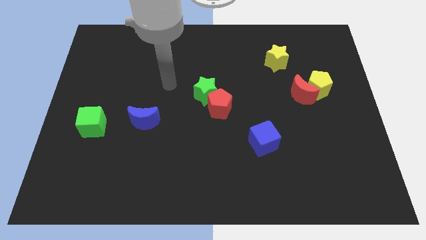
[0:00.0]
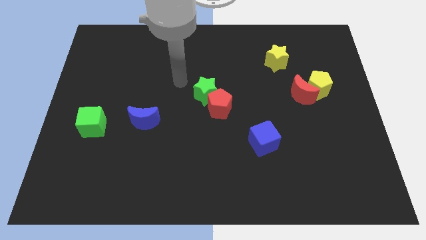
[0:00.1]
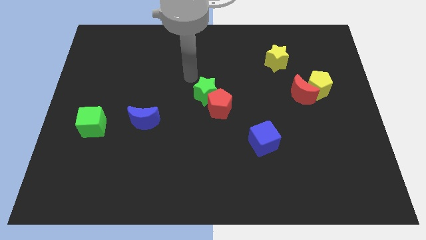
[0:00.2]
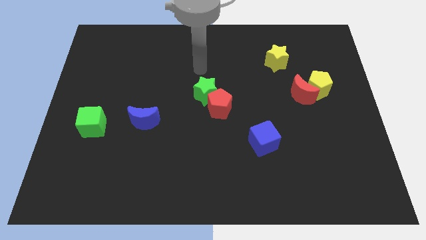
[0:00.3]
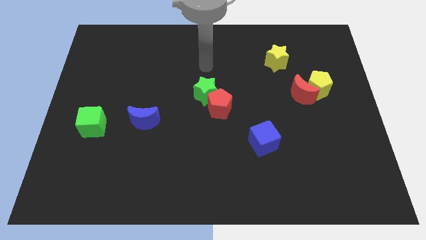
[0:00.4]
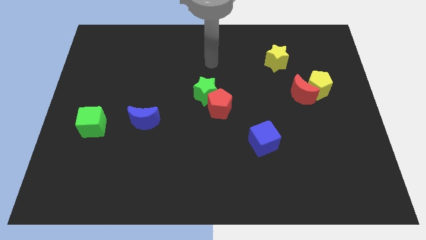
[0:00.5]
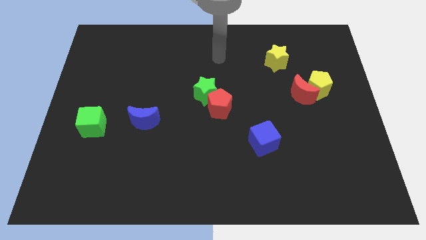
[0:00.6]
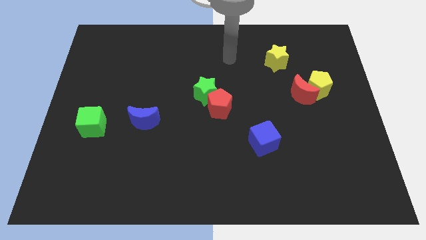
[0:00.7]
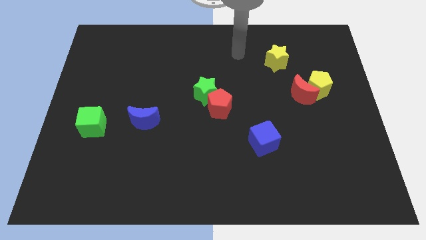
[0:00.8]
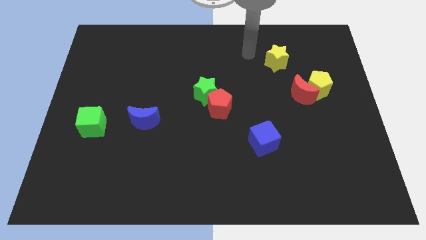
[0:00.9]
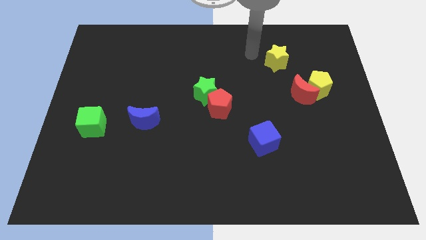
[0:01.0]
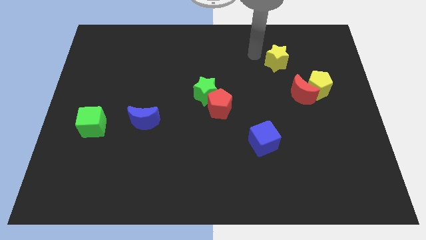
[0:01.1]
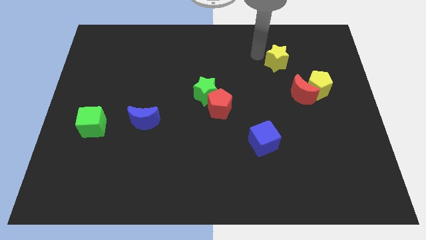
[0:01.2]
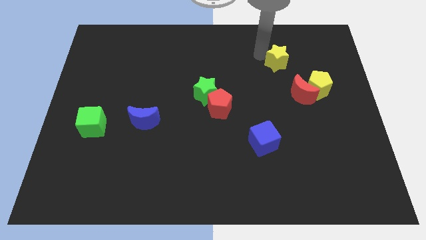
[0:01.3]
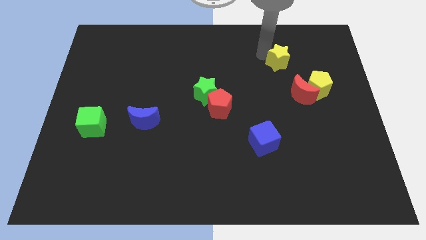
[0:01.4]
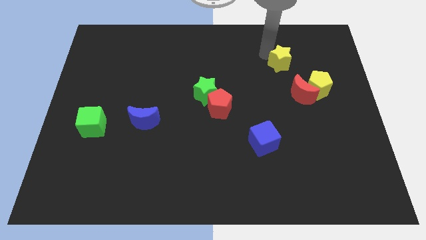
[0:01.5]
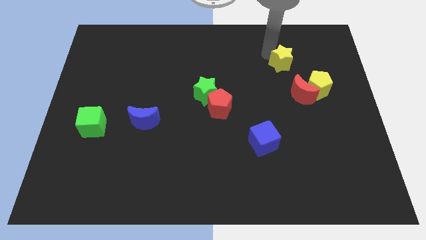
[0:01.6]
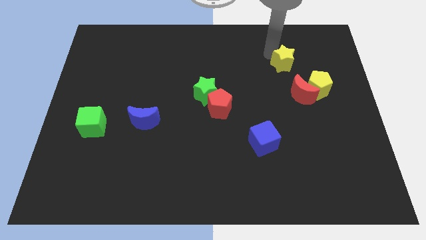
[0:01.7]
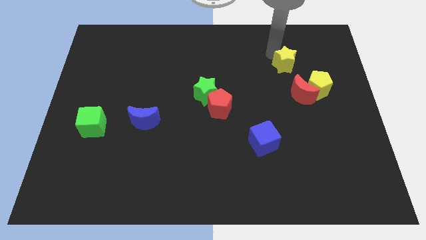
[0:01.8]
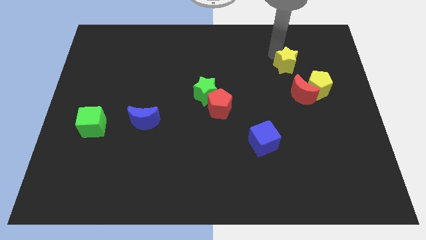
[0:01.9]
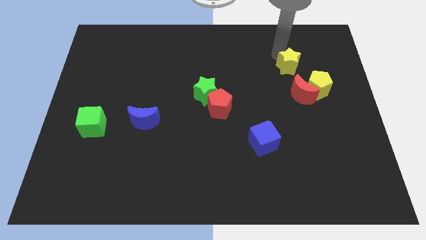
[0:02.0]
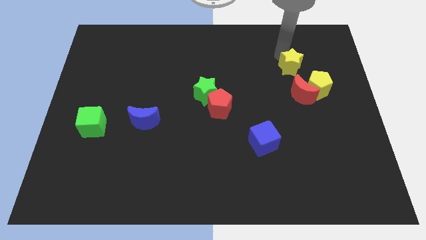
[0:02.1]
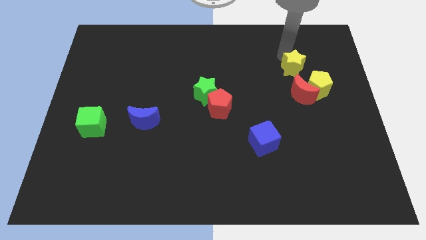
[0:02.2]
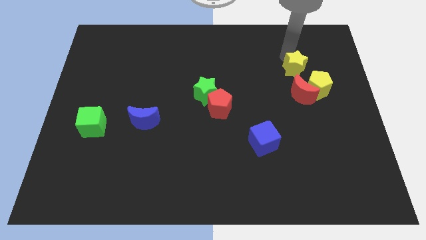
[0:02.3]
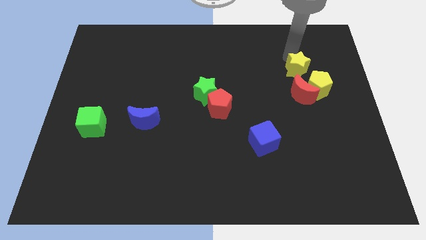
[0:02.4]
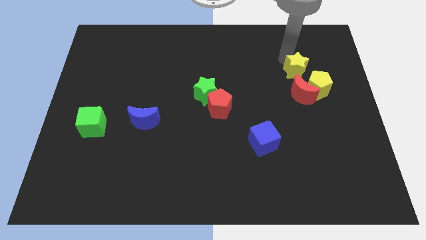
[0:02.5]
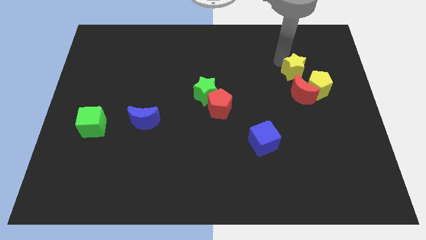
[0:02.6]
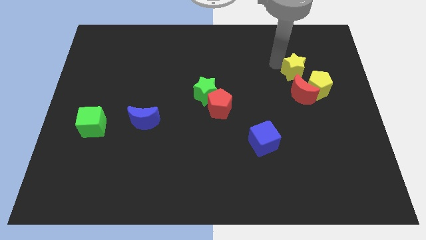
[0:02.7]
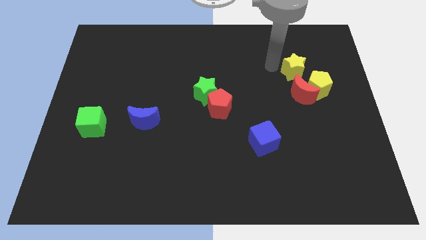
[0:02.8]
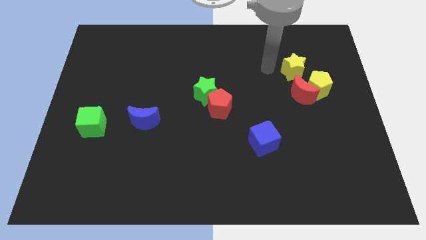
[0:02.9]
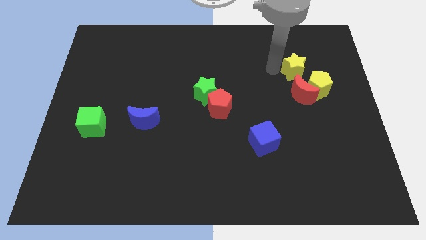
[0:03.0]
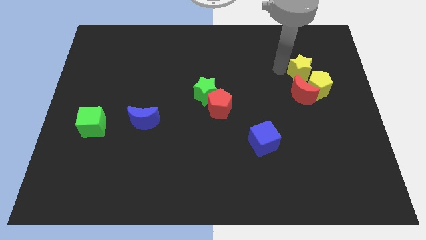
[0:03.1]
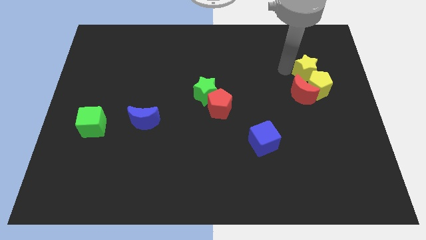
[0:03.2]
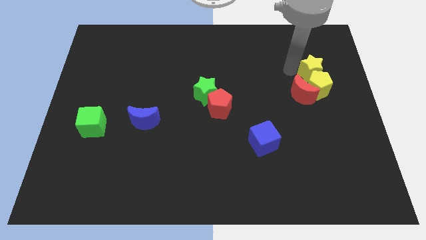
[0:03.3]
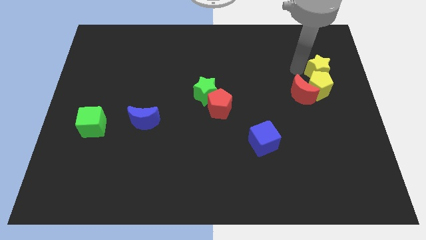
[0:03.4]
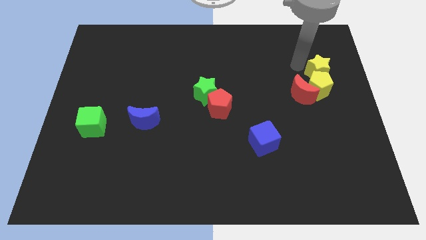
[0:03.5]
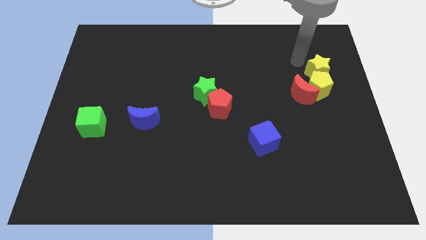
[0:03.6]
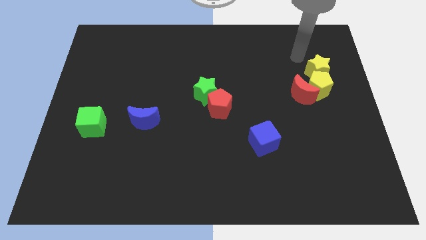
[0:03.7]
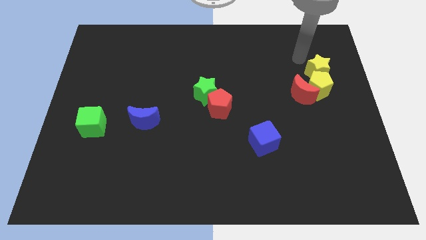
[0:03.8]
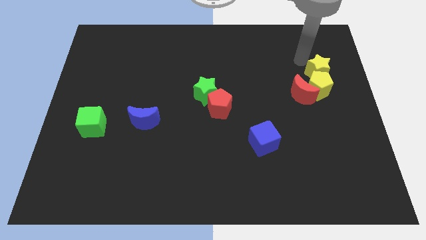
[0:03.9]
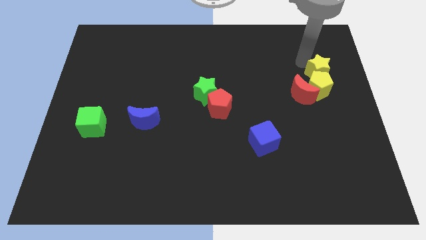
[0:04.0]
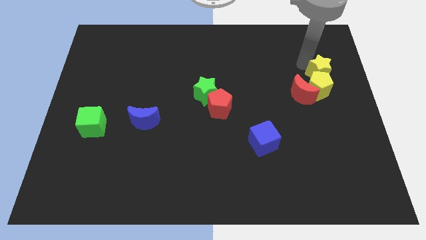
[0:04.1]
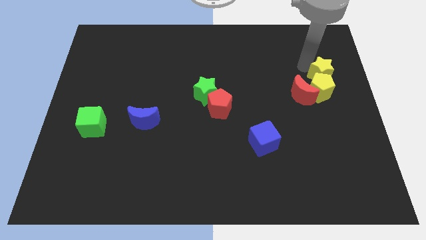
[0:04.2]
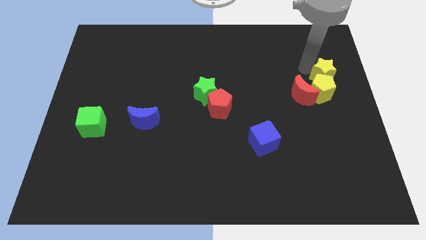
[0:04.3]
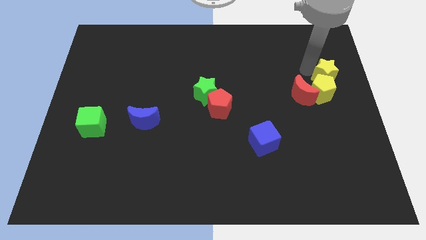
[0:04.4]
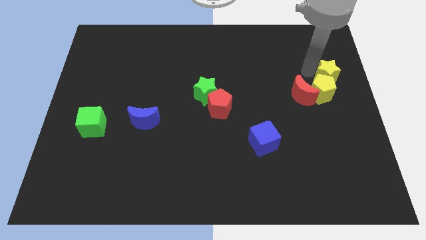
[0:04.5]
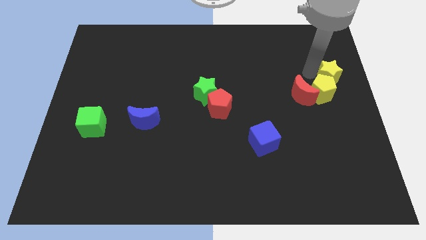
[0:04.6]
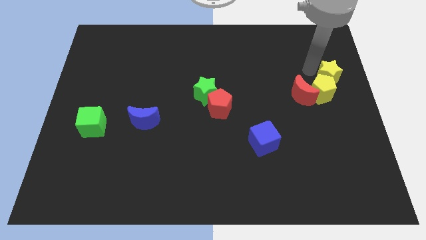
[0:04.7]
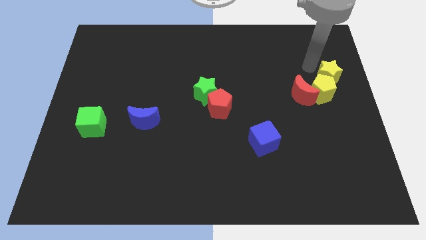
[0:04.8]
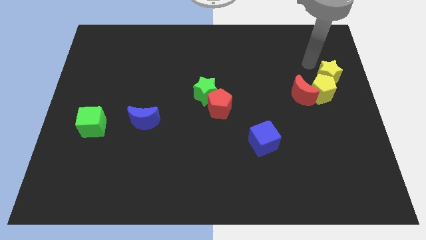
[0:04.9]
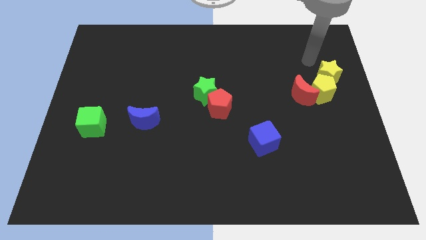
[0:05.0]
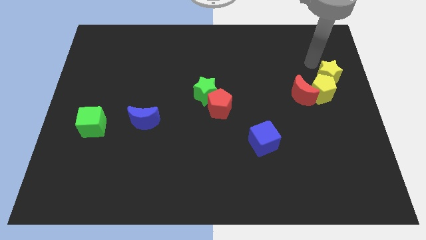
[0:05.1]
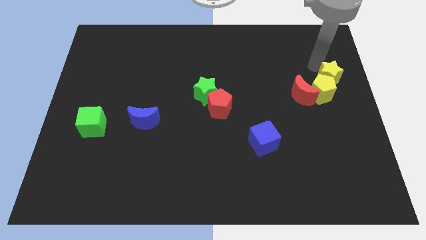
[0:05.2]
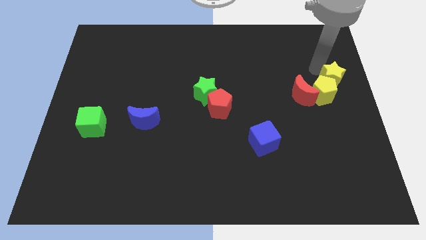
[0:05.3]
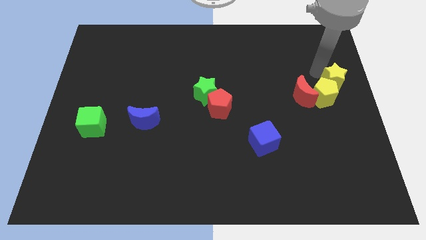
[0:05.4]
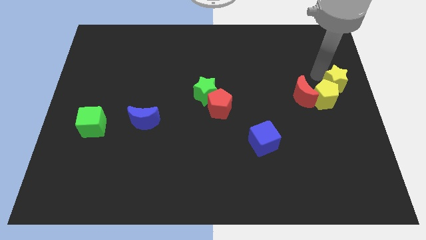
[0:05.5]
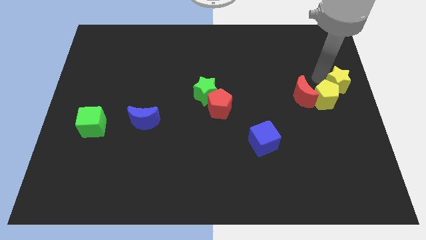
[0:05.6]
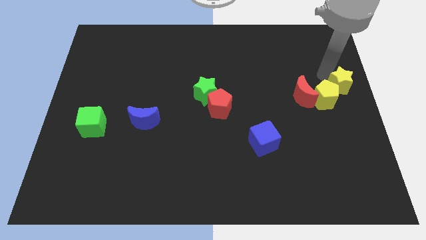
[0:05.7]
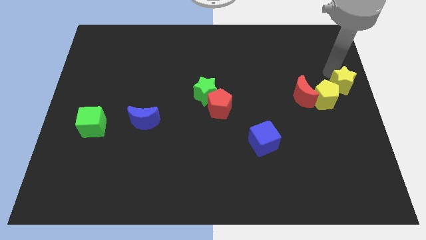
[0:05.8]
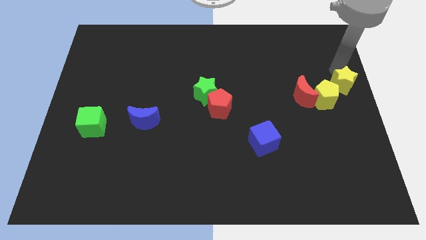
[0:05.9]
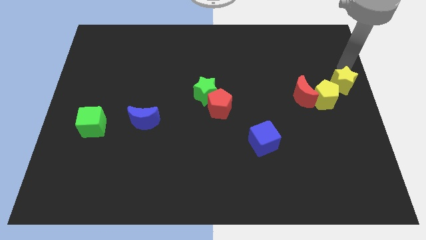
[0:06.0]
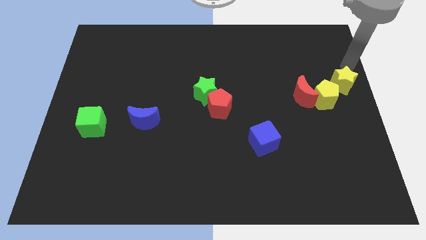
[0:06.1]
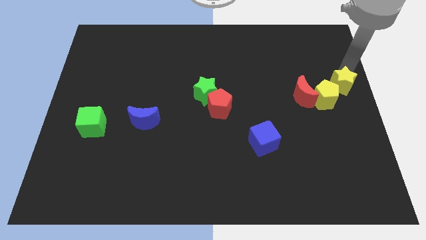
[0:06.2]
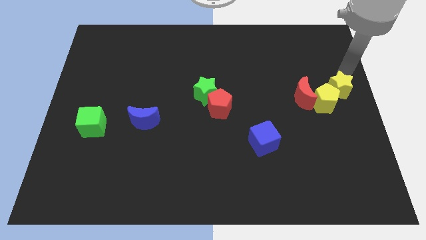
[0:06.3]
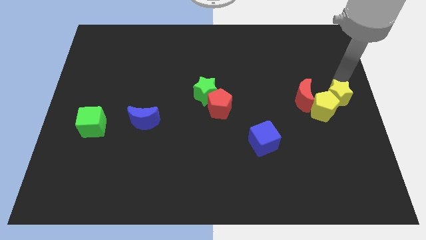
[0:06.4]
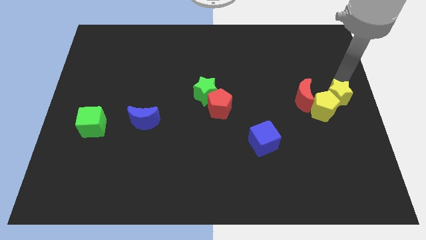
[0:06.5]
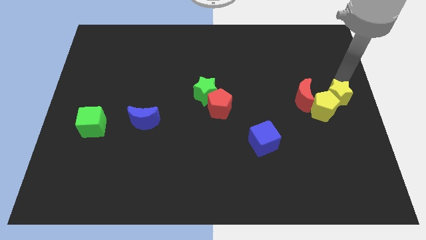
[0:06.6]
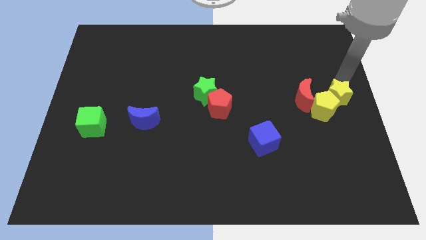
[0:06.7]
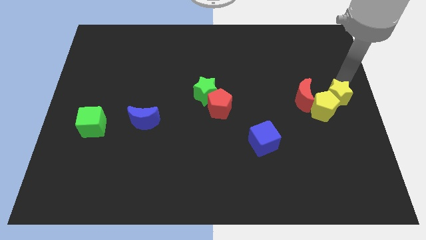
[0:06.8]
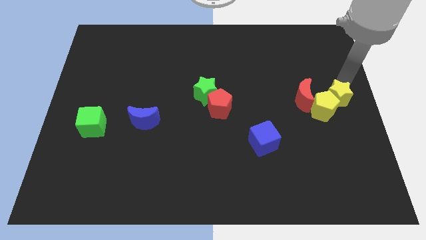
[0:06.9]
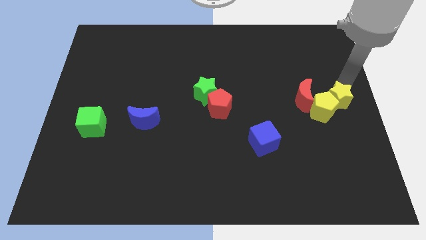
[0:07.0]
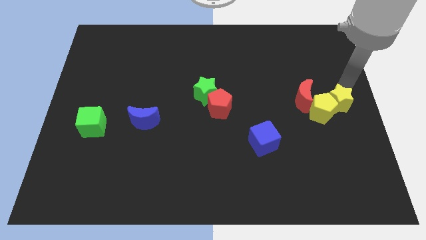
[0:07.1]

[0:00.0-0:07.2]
put the yellow star to the bottom right of the red moon
